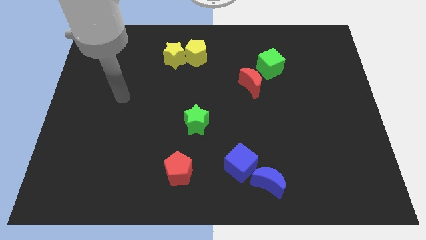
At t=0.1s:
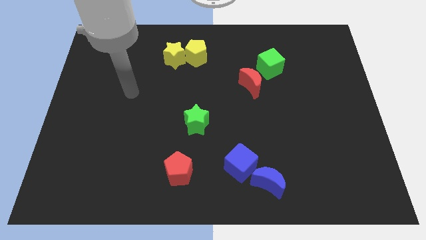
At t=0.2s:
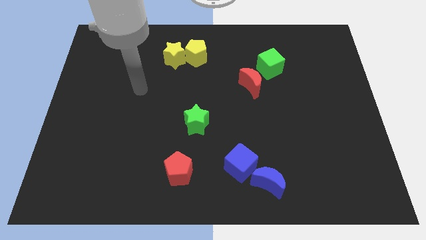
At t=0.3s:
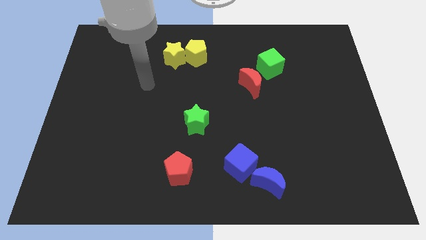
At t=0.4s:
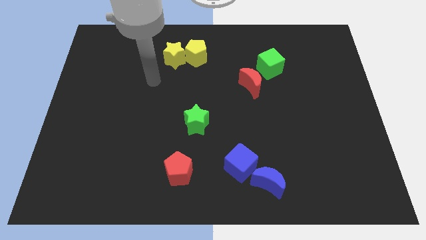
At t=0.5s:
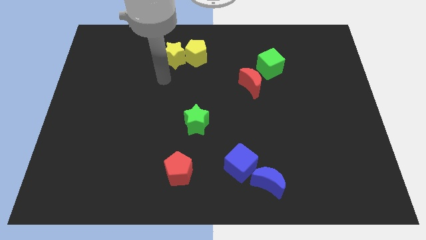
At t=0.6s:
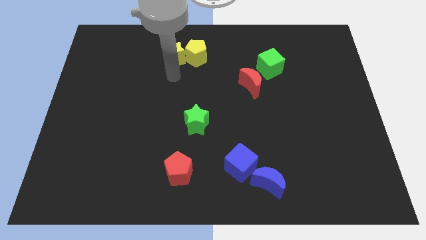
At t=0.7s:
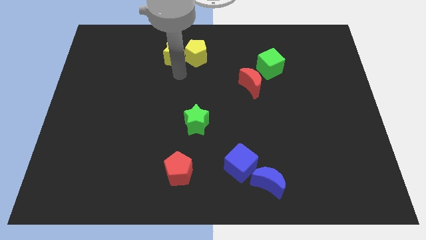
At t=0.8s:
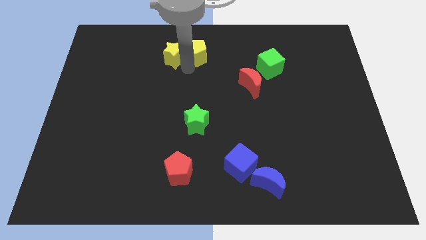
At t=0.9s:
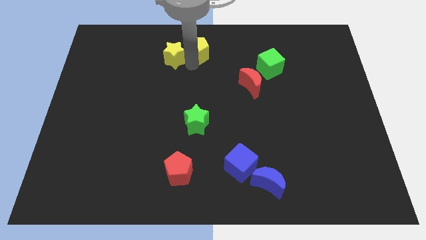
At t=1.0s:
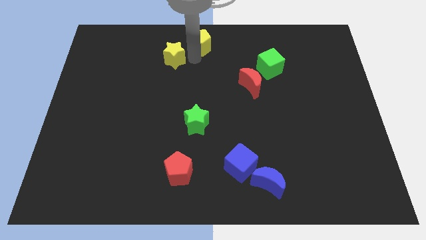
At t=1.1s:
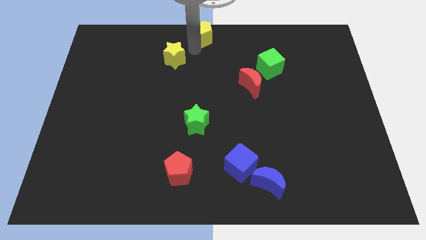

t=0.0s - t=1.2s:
pull the yellow star apart from the yellow pentagon

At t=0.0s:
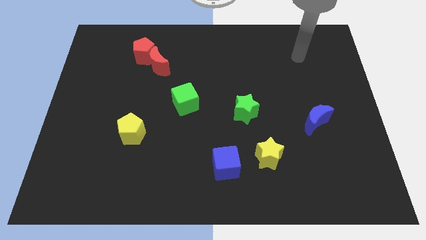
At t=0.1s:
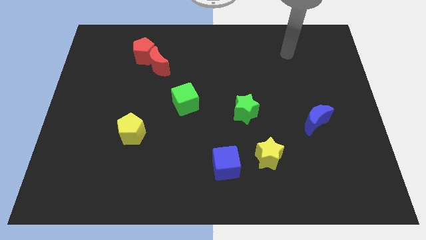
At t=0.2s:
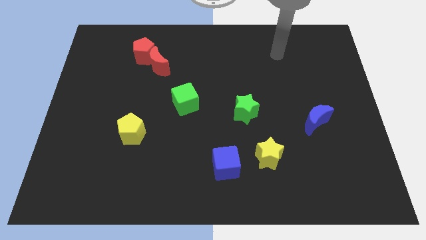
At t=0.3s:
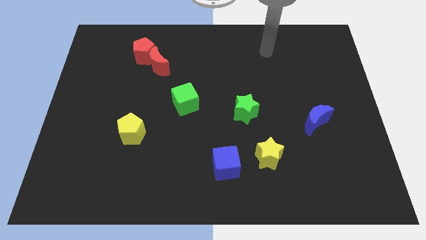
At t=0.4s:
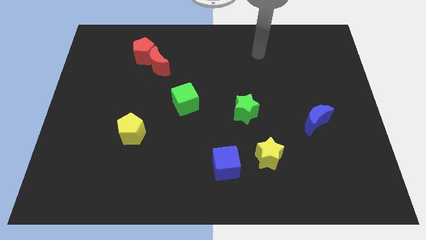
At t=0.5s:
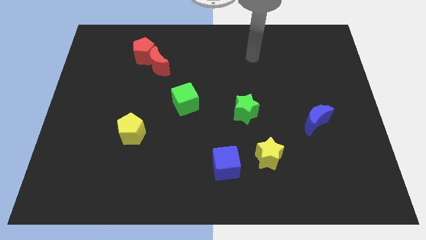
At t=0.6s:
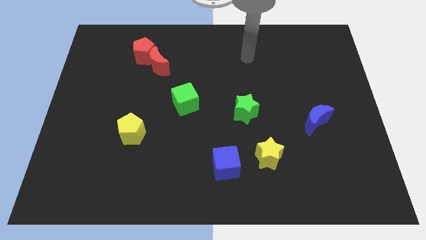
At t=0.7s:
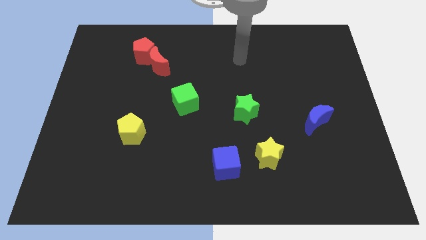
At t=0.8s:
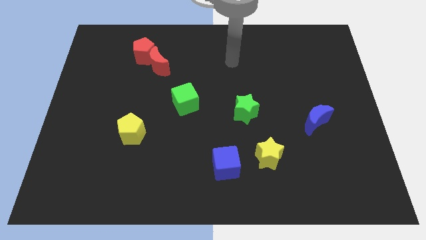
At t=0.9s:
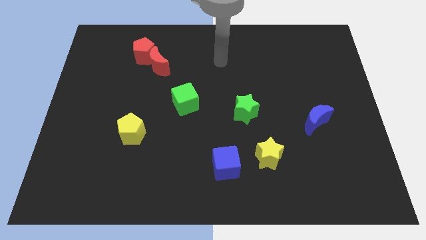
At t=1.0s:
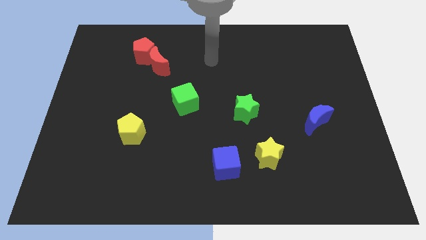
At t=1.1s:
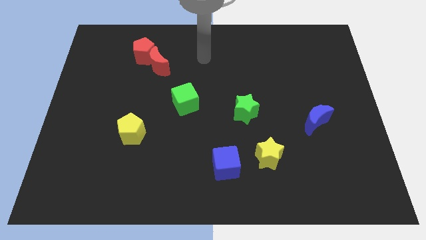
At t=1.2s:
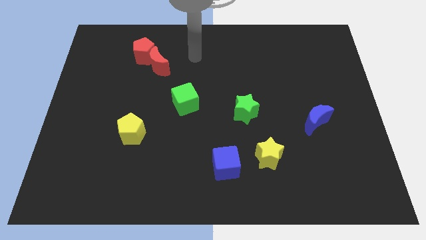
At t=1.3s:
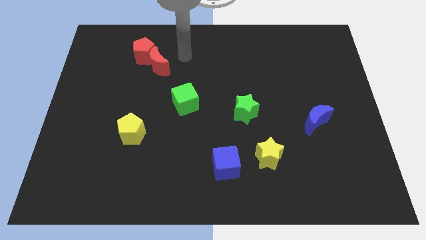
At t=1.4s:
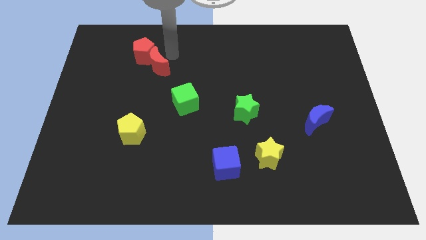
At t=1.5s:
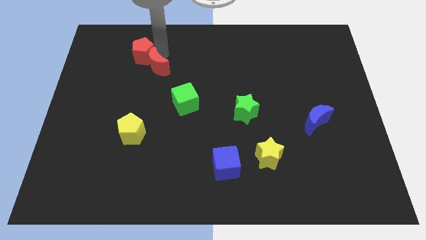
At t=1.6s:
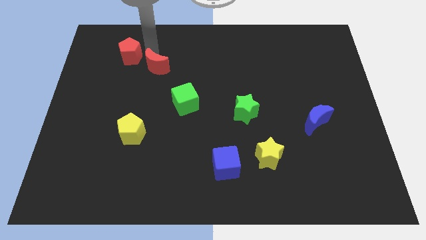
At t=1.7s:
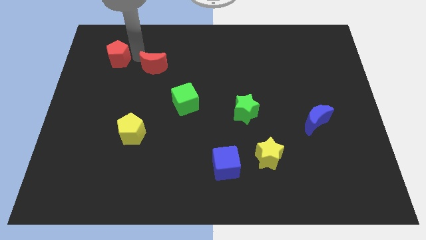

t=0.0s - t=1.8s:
separate the red moon from the red pentagon

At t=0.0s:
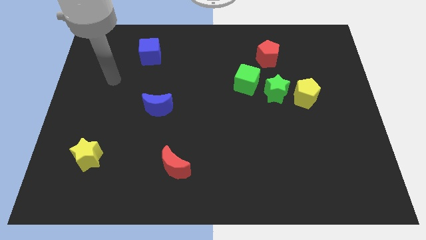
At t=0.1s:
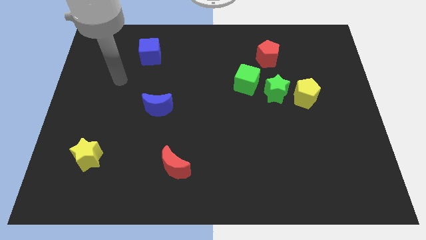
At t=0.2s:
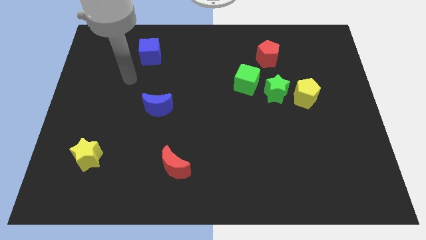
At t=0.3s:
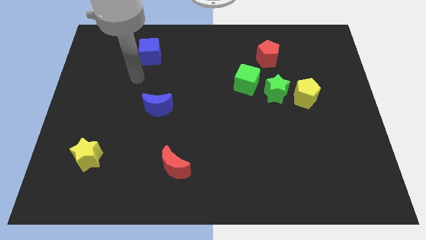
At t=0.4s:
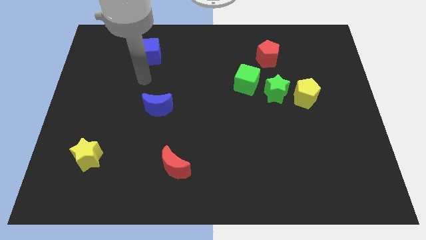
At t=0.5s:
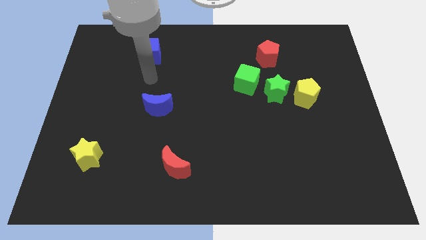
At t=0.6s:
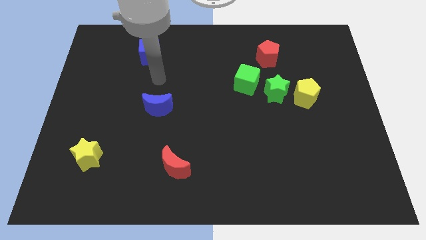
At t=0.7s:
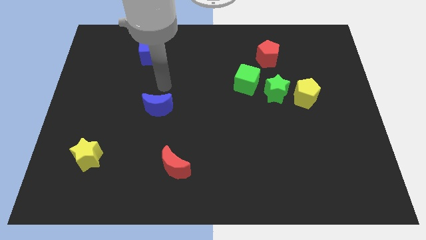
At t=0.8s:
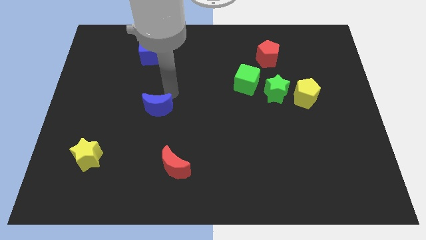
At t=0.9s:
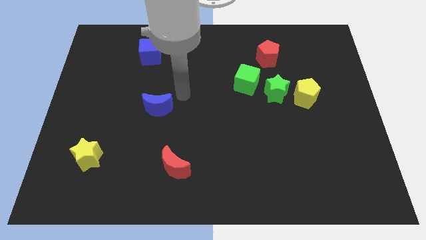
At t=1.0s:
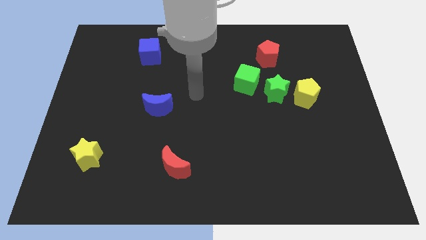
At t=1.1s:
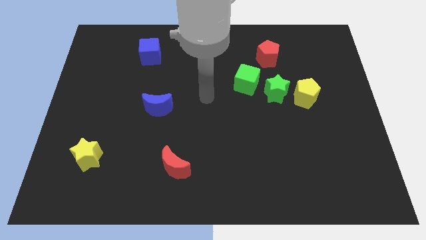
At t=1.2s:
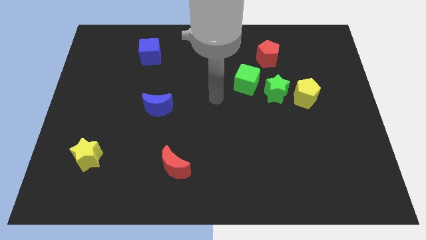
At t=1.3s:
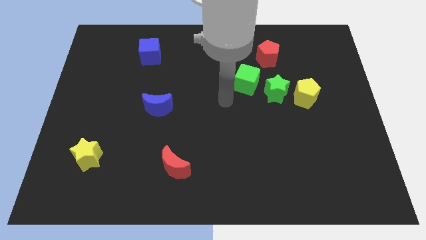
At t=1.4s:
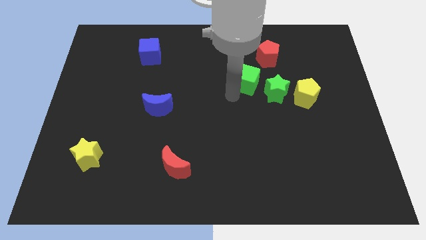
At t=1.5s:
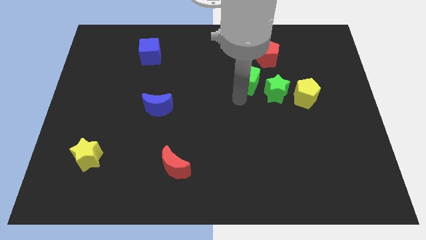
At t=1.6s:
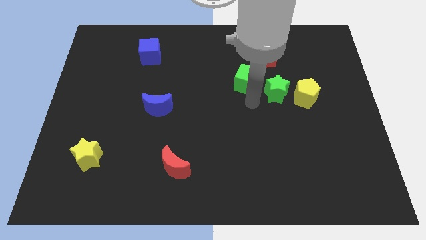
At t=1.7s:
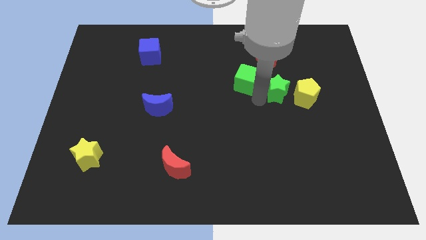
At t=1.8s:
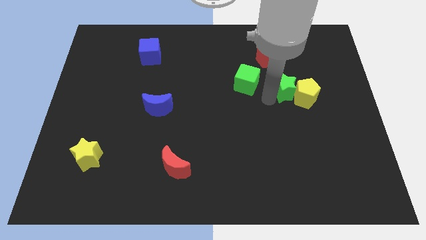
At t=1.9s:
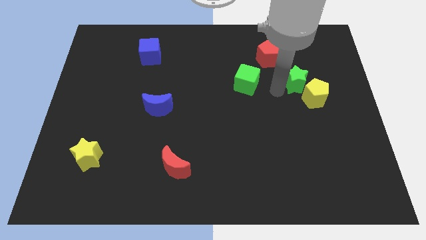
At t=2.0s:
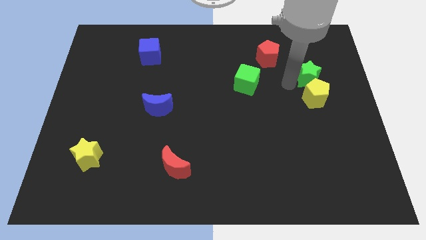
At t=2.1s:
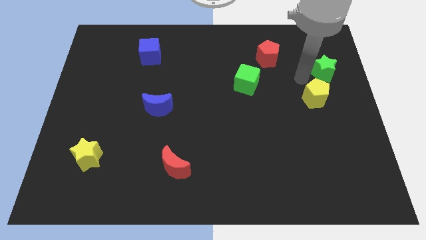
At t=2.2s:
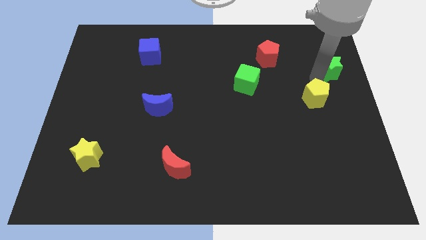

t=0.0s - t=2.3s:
move the yellow pentagon away from the green star

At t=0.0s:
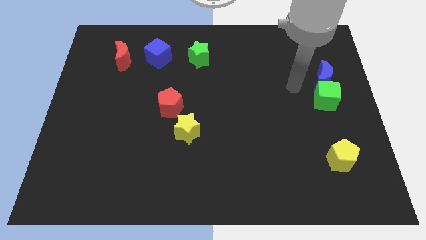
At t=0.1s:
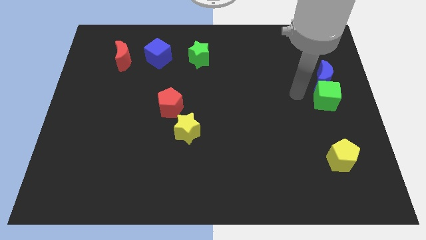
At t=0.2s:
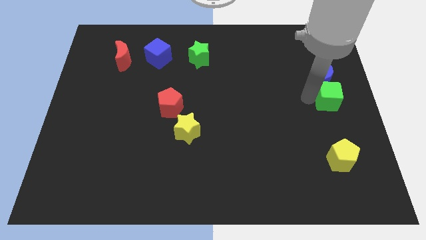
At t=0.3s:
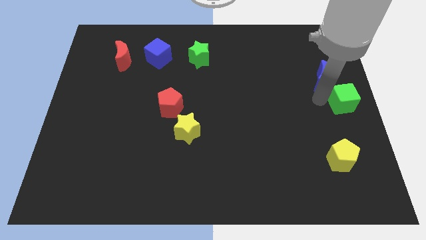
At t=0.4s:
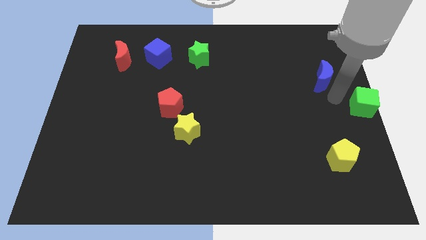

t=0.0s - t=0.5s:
move the blue moon away from the green cube

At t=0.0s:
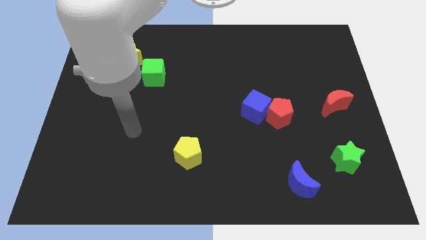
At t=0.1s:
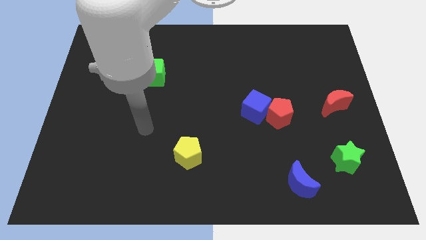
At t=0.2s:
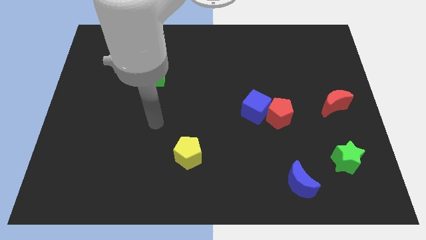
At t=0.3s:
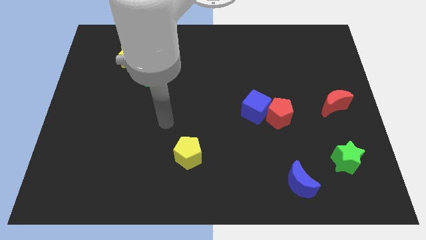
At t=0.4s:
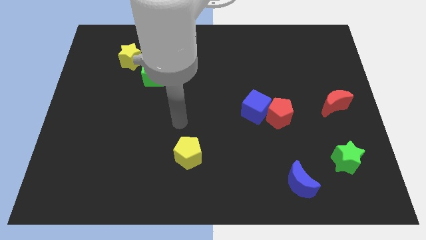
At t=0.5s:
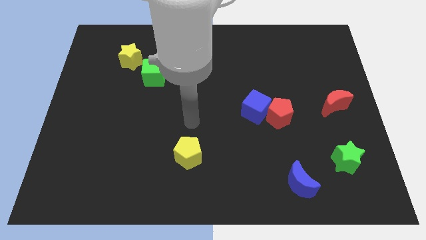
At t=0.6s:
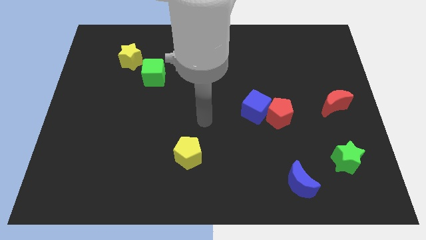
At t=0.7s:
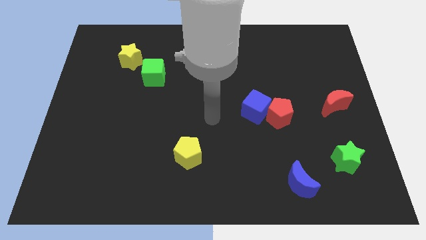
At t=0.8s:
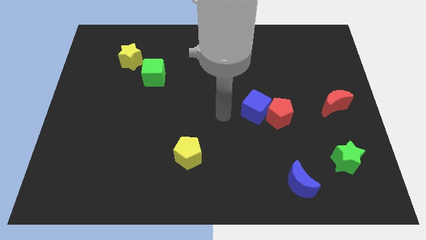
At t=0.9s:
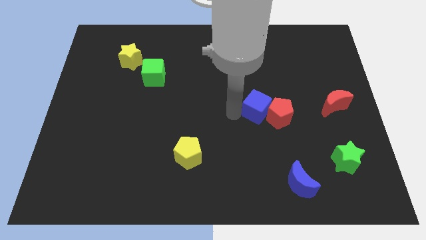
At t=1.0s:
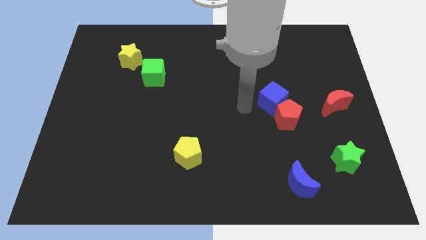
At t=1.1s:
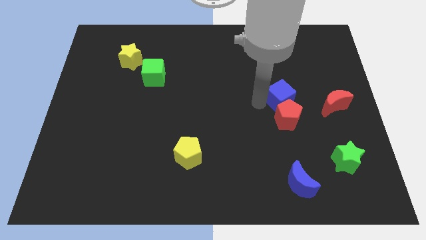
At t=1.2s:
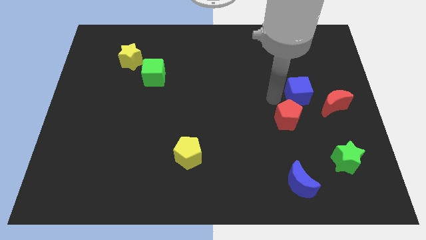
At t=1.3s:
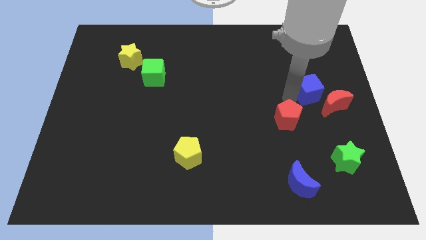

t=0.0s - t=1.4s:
move the red pentagon away from the blue cube

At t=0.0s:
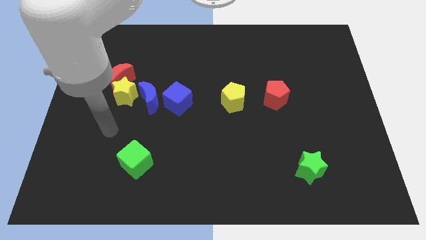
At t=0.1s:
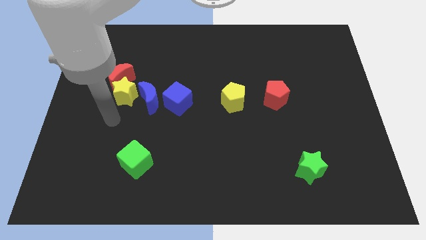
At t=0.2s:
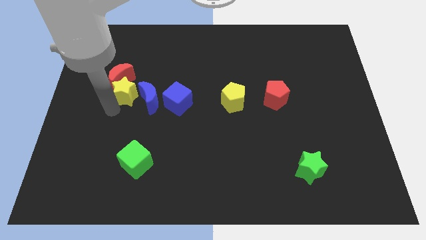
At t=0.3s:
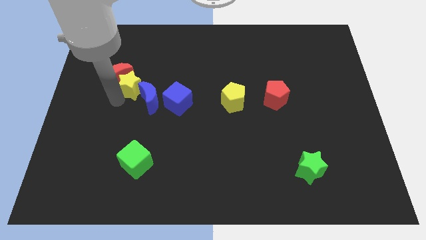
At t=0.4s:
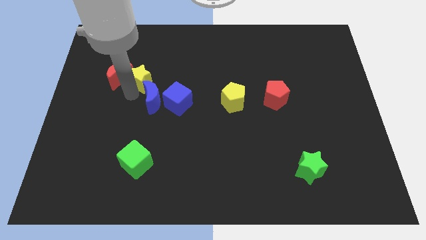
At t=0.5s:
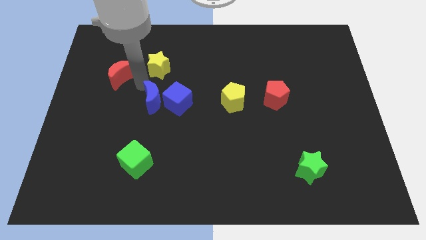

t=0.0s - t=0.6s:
separate the red moon from the yellow star

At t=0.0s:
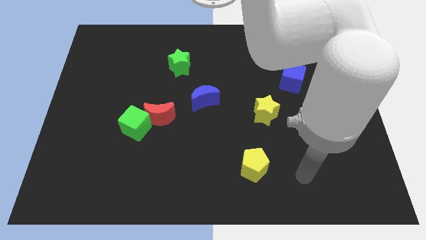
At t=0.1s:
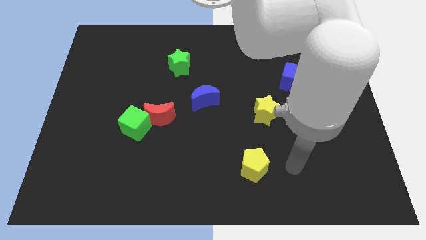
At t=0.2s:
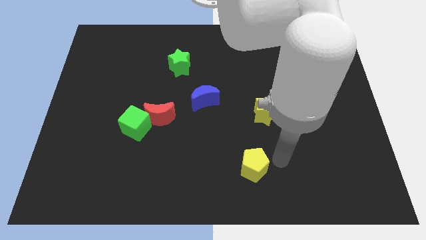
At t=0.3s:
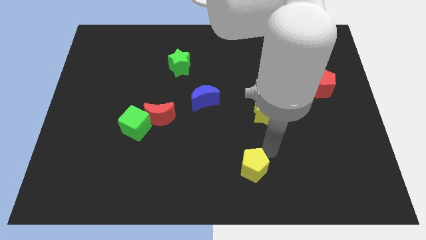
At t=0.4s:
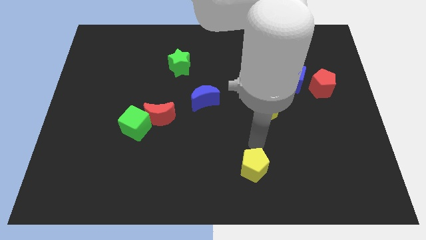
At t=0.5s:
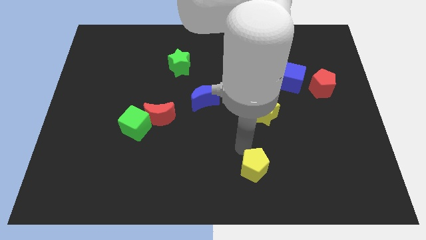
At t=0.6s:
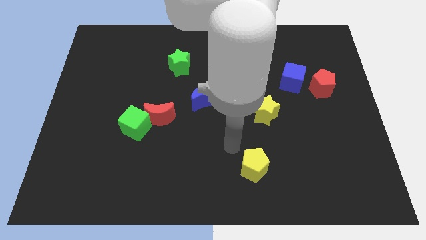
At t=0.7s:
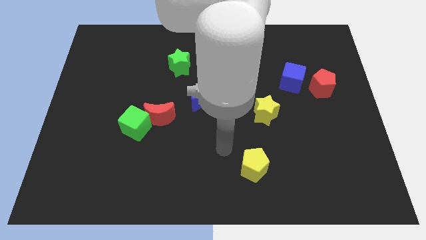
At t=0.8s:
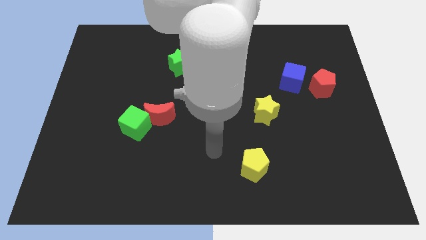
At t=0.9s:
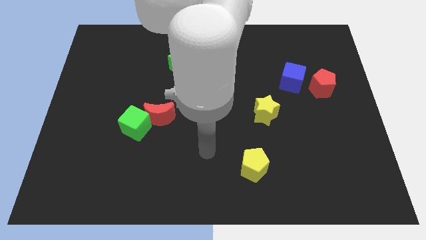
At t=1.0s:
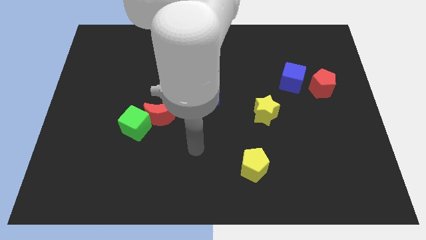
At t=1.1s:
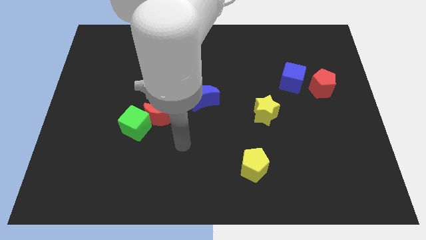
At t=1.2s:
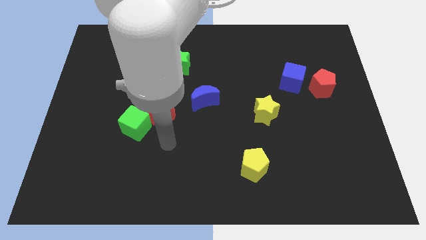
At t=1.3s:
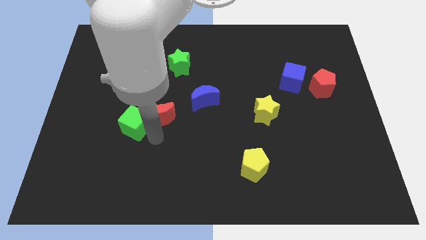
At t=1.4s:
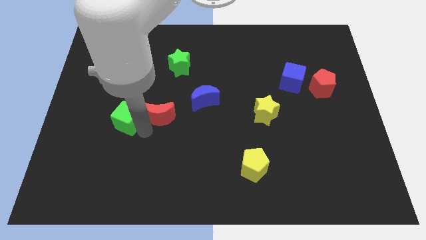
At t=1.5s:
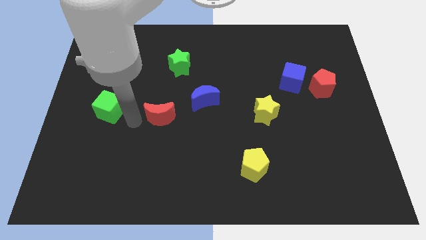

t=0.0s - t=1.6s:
move the red moon away from the green cube
